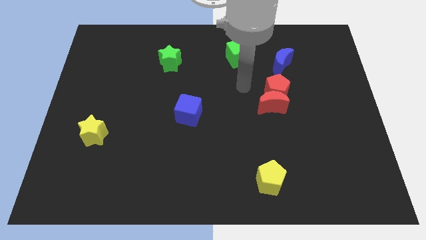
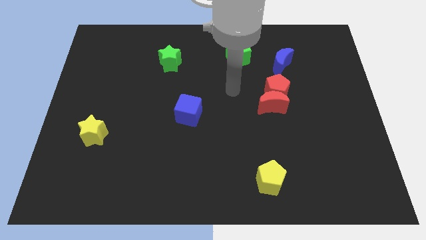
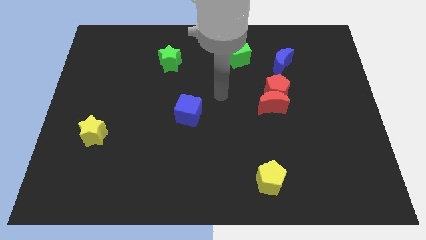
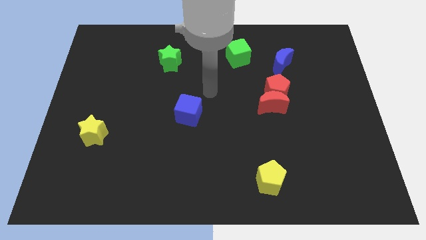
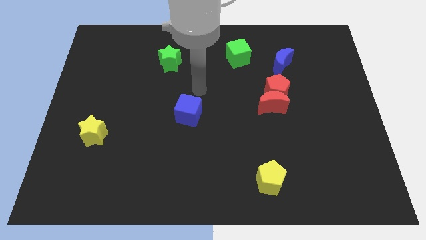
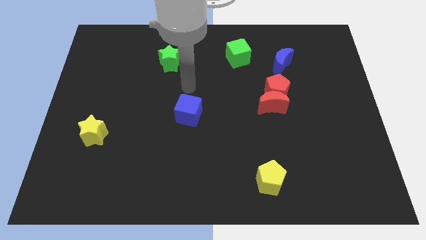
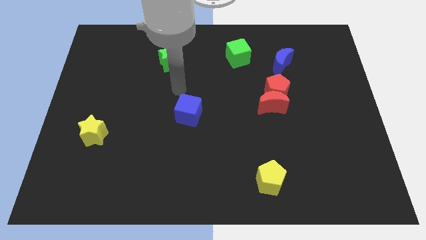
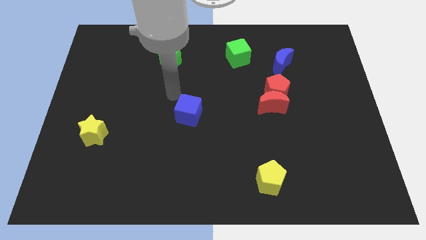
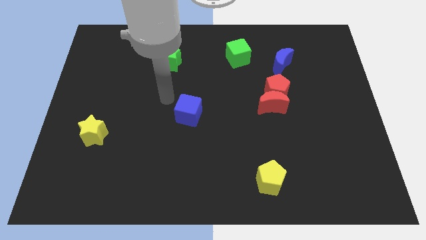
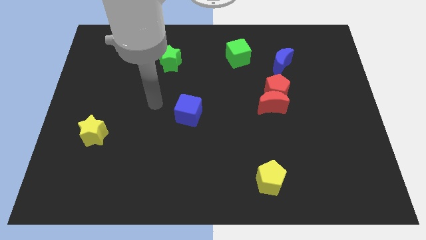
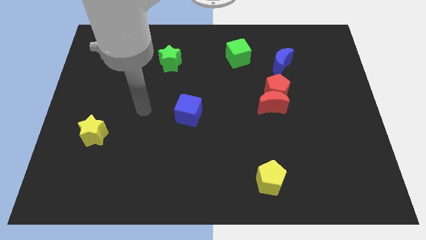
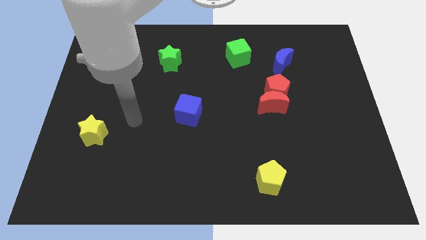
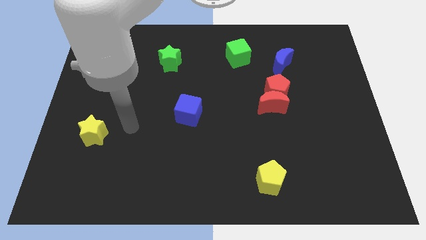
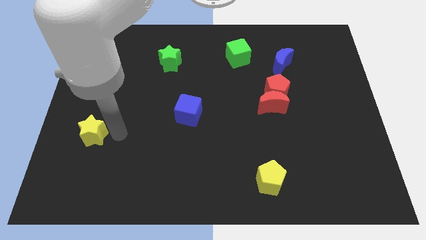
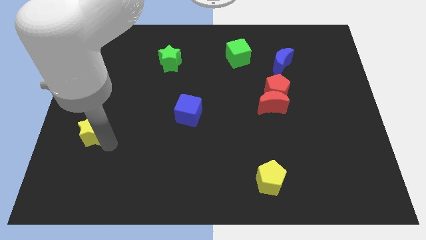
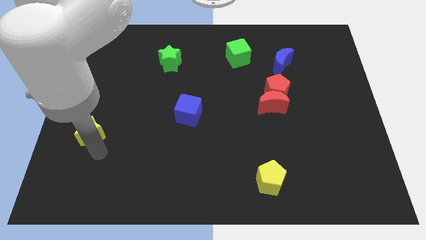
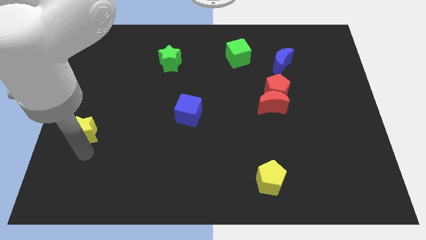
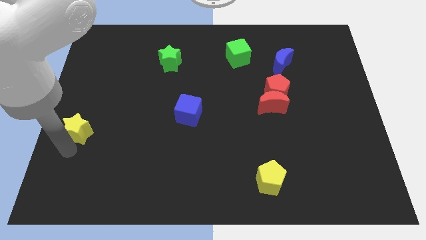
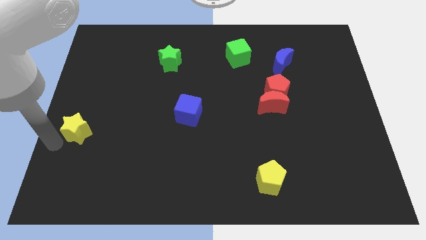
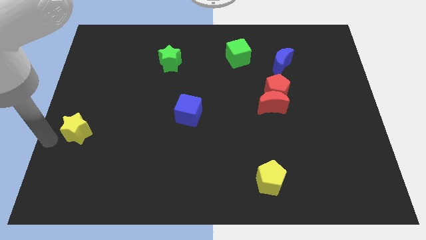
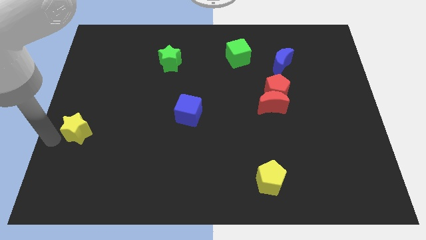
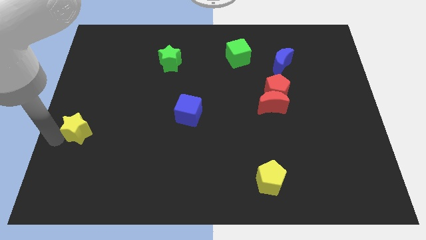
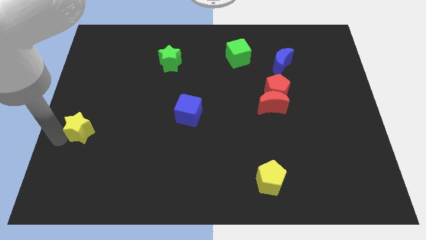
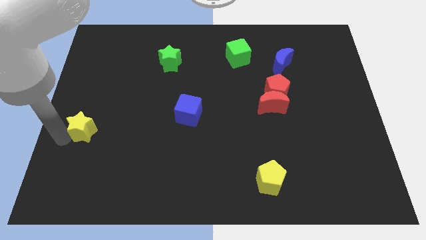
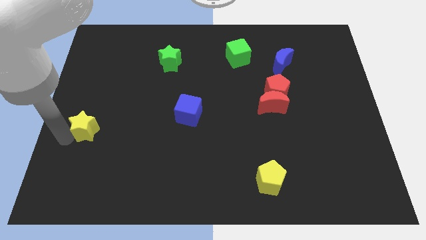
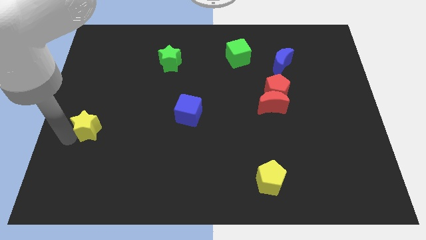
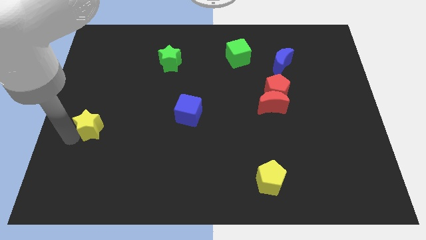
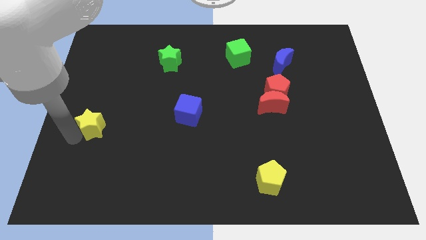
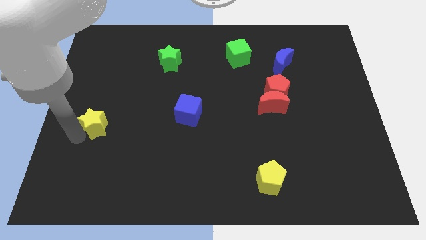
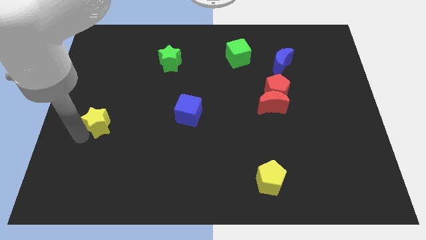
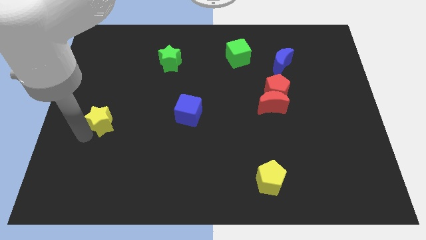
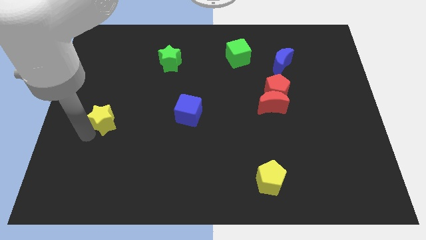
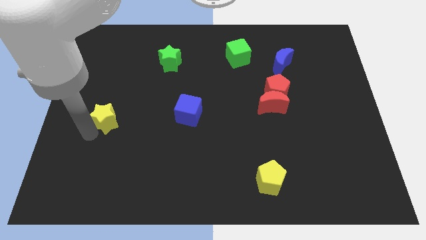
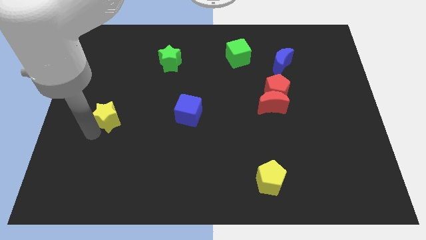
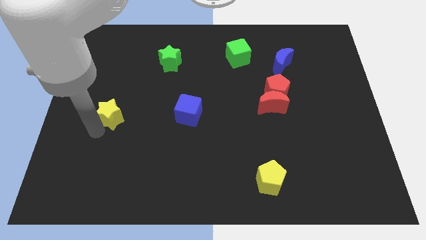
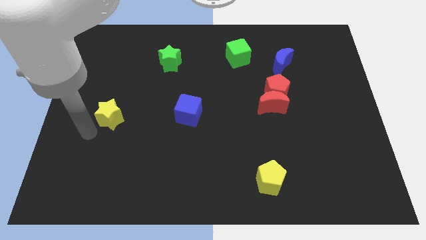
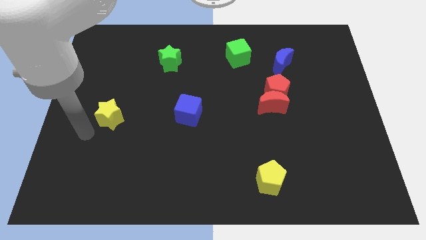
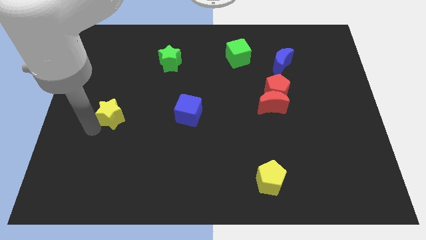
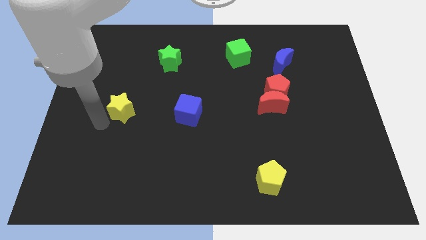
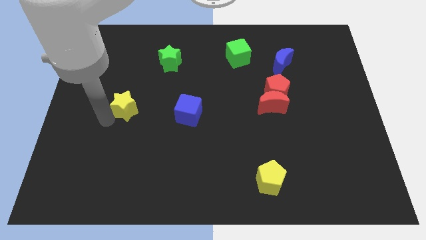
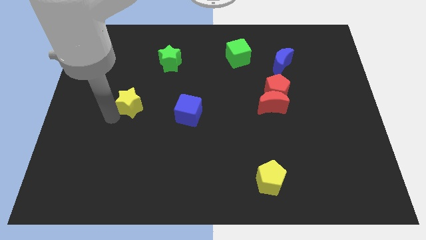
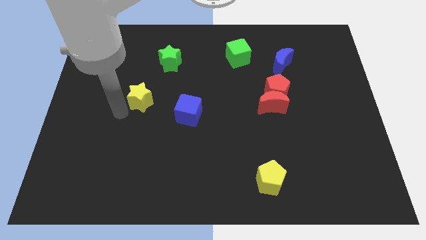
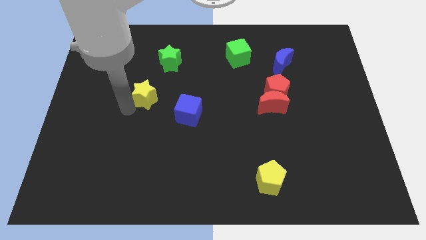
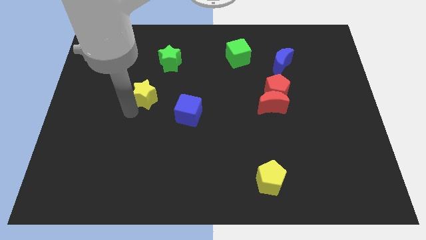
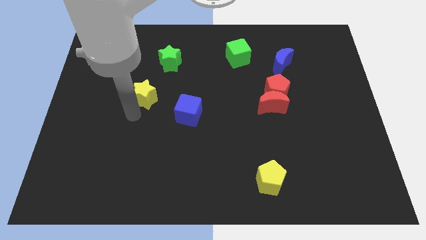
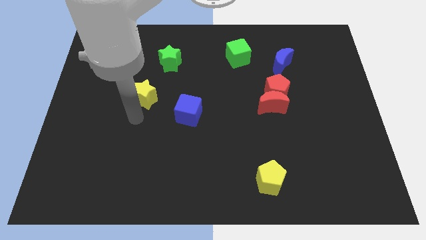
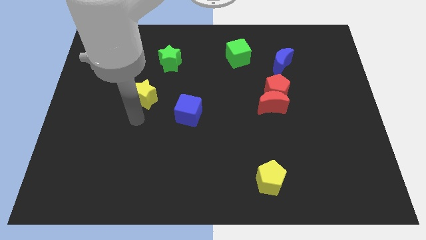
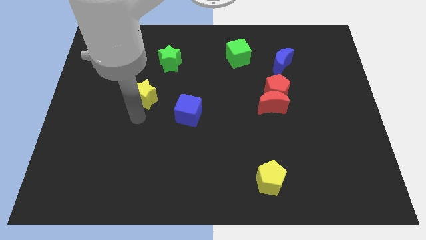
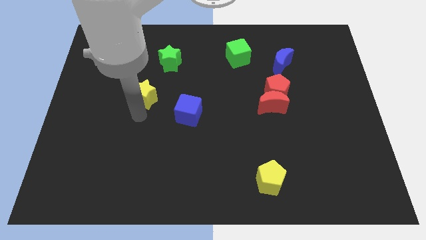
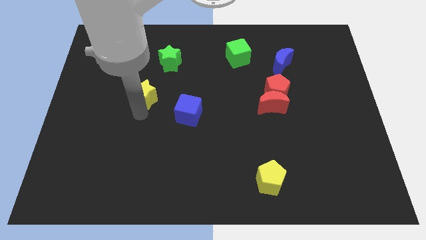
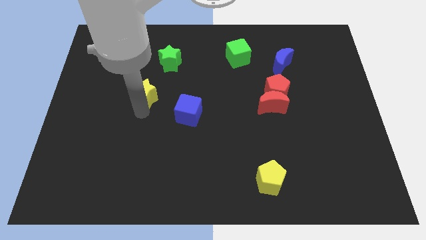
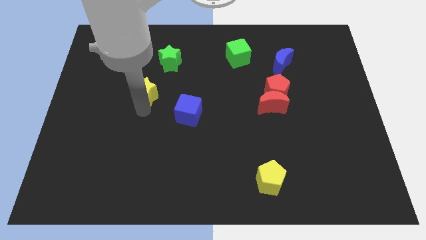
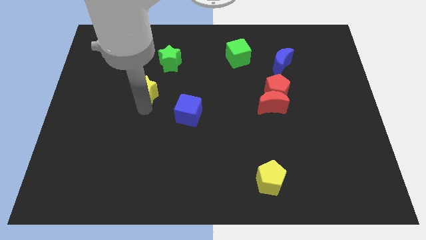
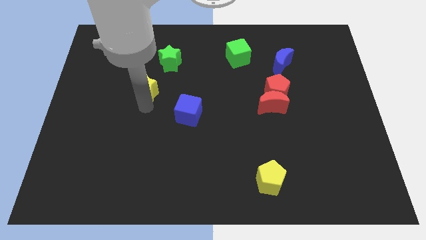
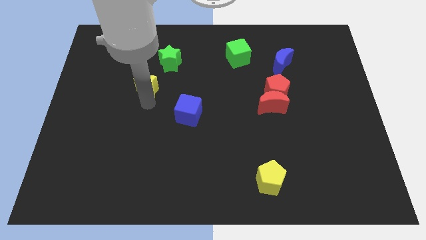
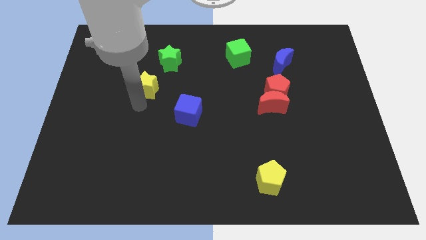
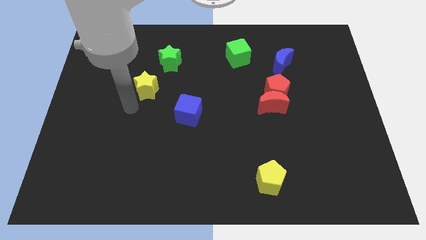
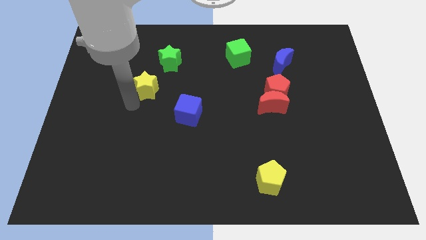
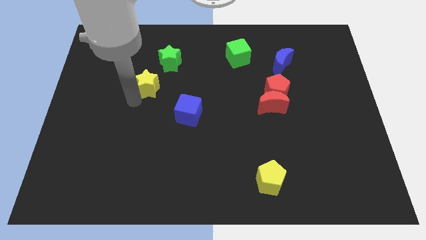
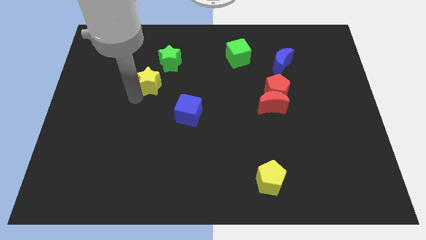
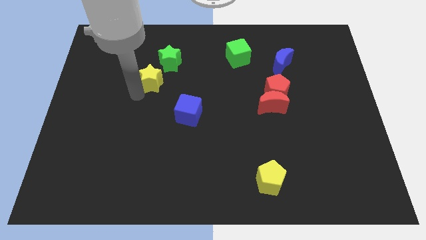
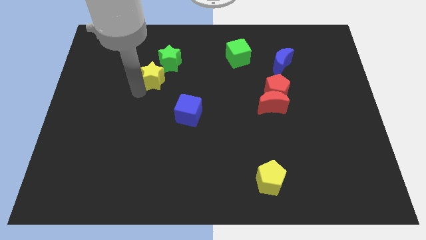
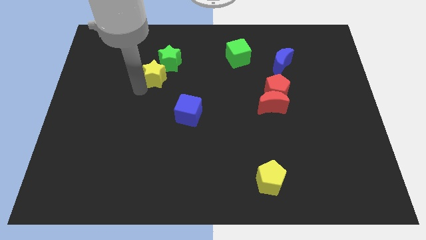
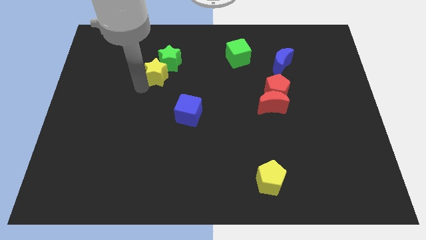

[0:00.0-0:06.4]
push the yellow star to the green star
